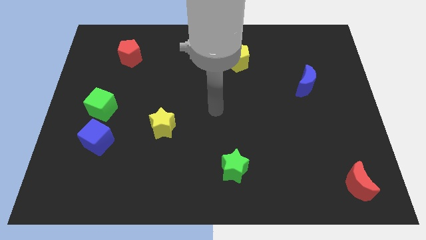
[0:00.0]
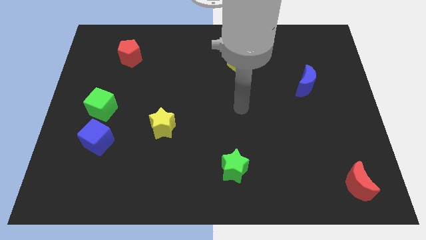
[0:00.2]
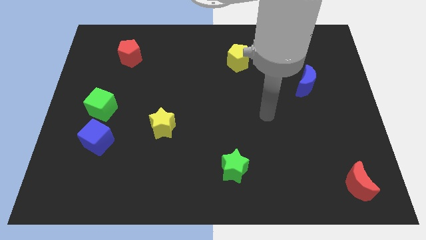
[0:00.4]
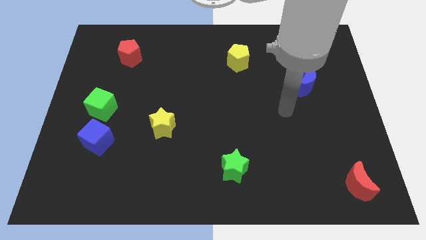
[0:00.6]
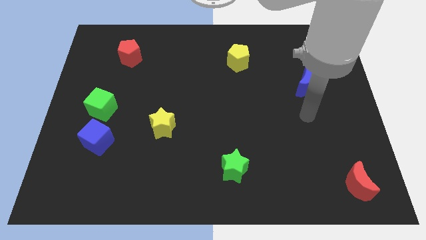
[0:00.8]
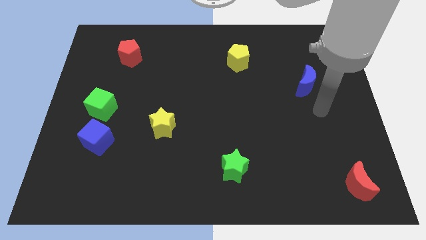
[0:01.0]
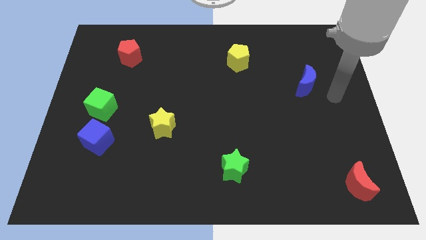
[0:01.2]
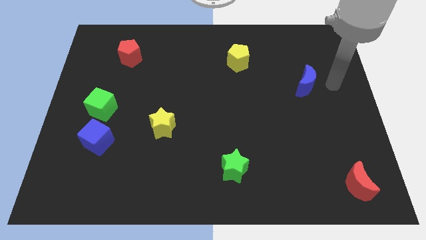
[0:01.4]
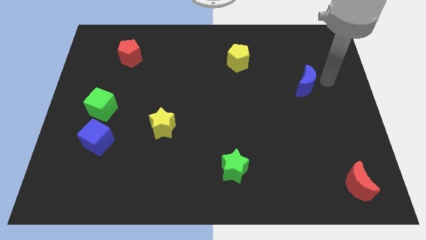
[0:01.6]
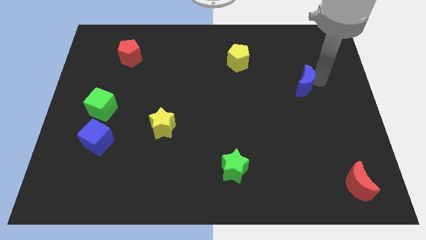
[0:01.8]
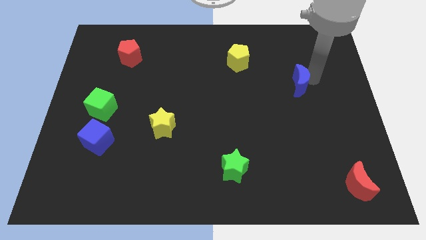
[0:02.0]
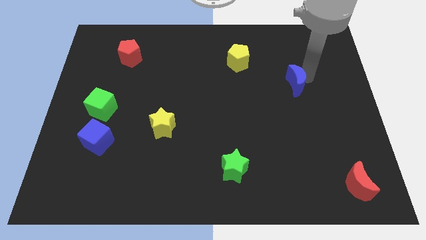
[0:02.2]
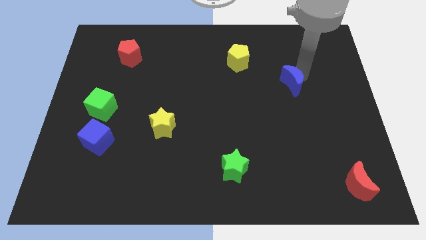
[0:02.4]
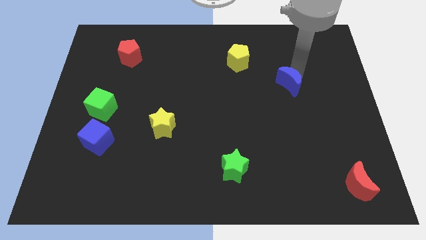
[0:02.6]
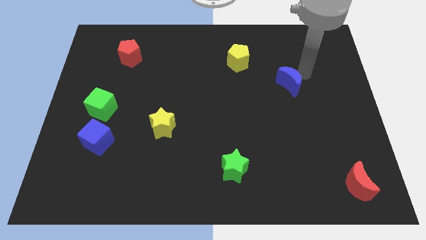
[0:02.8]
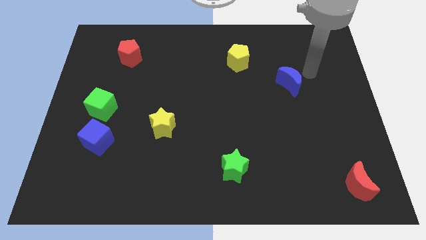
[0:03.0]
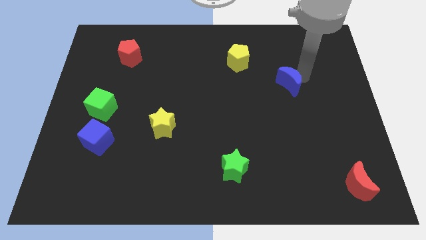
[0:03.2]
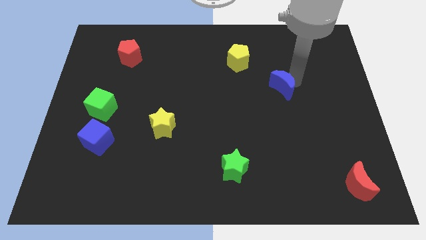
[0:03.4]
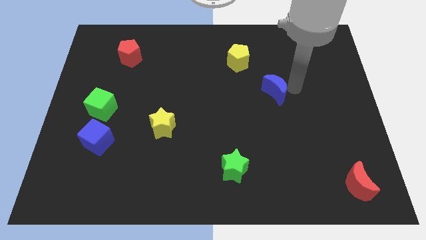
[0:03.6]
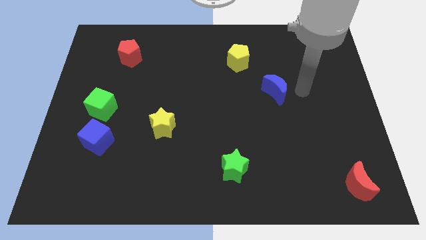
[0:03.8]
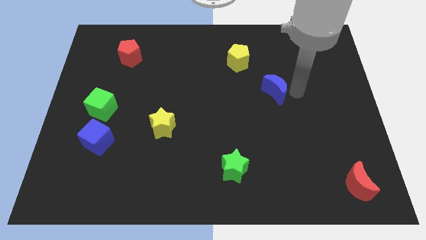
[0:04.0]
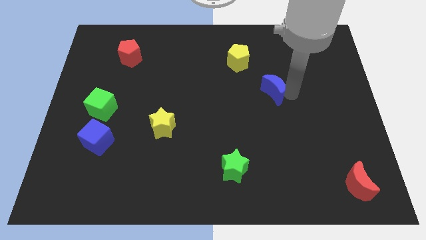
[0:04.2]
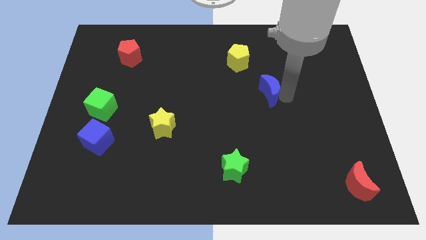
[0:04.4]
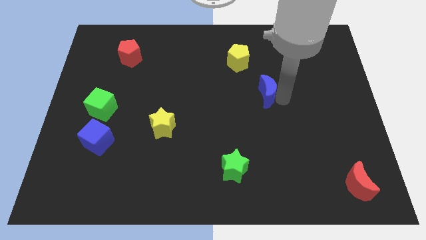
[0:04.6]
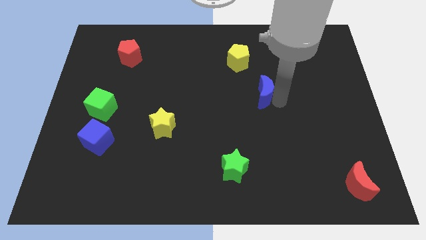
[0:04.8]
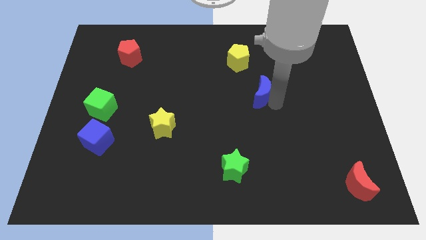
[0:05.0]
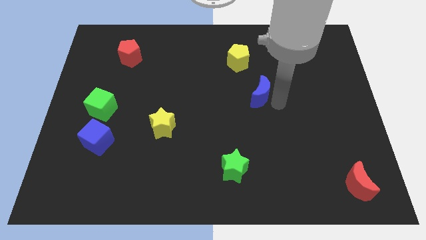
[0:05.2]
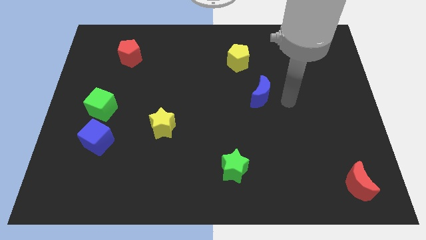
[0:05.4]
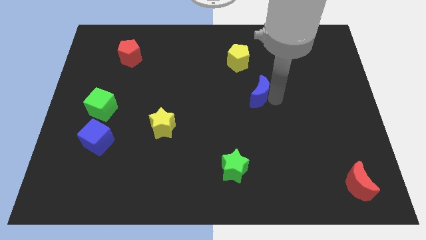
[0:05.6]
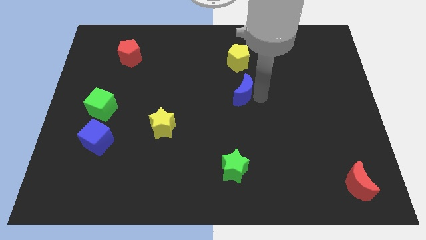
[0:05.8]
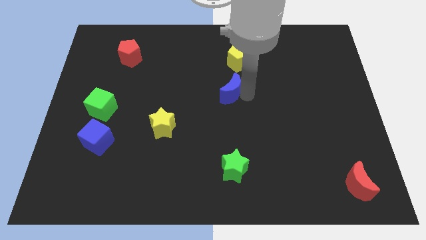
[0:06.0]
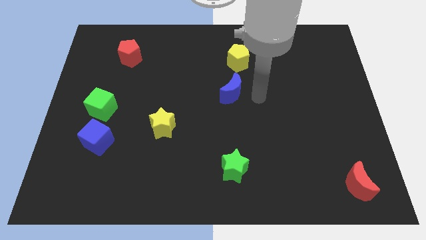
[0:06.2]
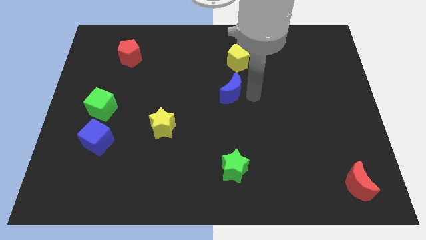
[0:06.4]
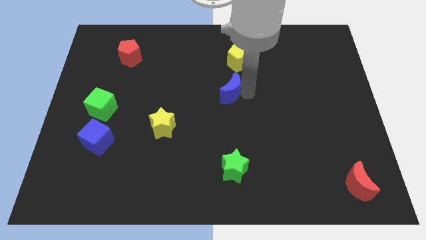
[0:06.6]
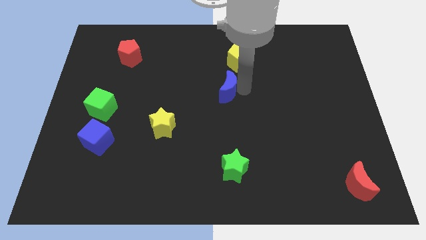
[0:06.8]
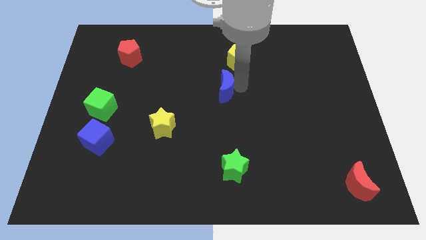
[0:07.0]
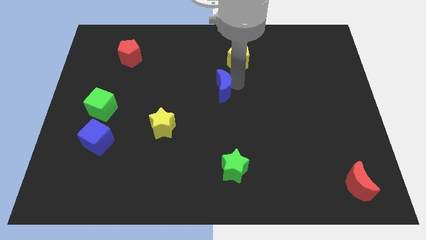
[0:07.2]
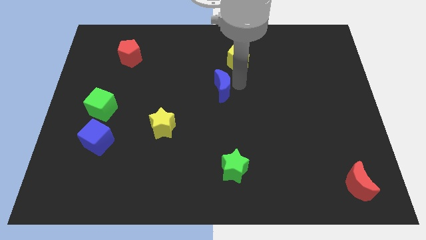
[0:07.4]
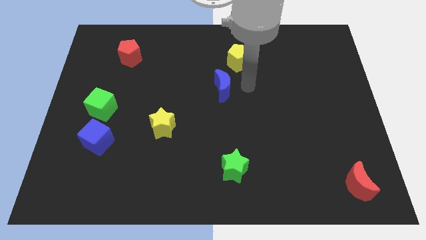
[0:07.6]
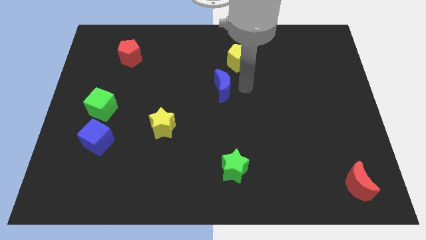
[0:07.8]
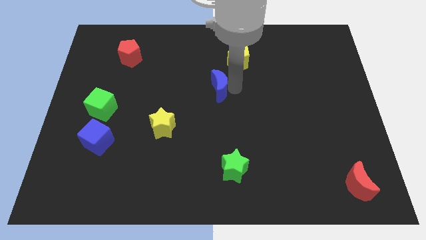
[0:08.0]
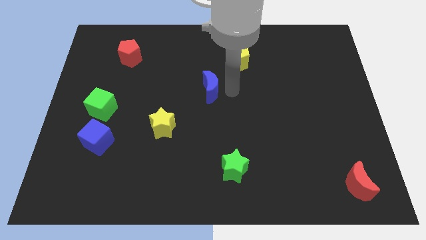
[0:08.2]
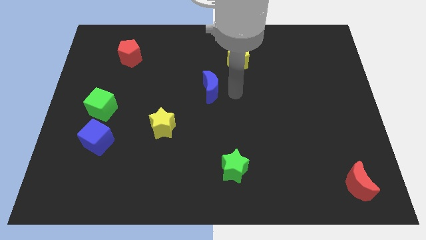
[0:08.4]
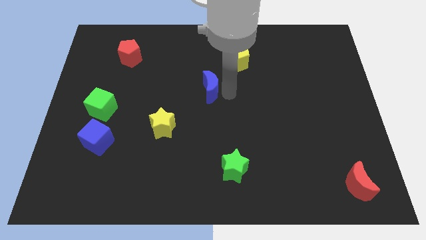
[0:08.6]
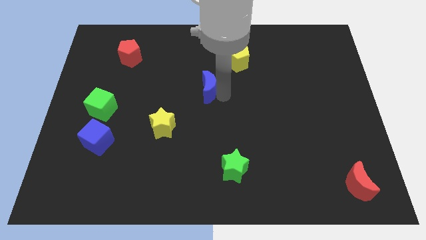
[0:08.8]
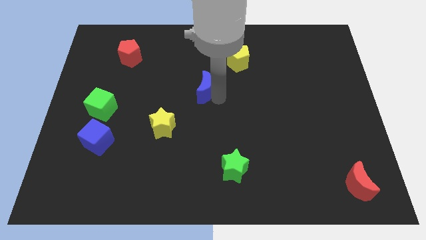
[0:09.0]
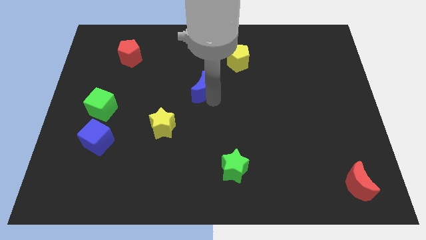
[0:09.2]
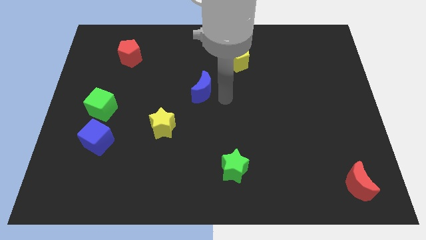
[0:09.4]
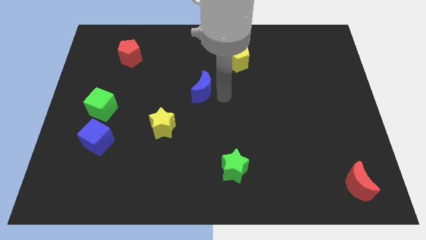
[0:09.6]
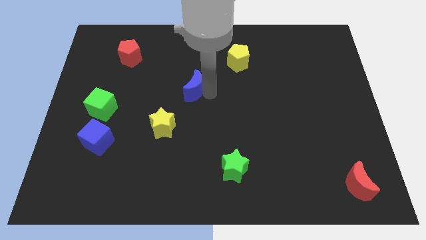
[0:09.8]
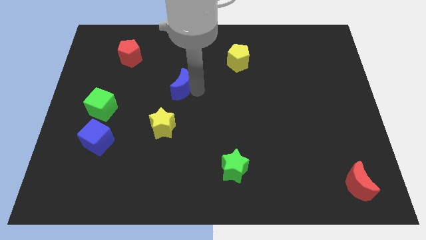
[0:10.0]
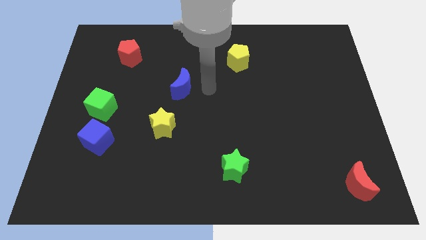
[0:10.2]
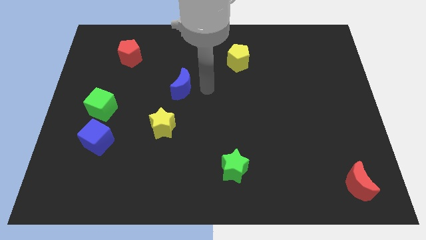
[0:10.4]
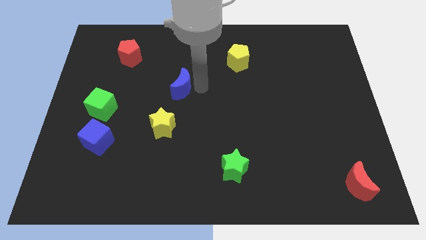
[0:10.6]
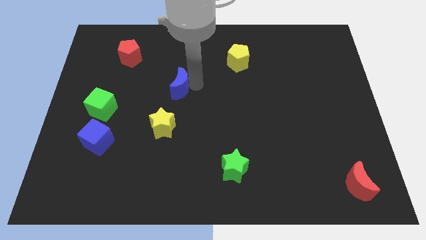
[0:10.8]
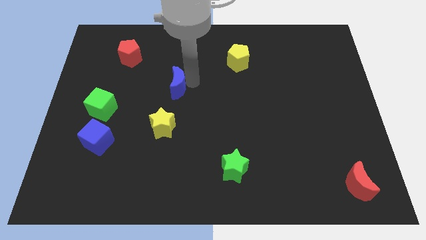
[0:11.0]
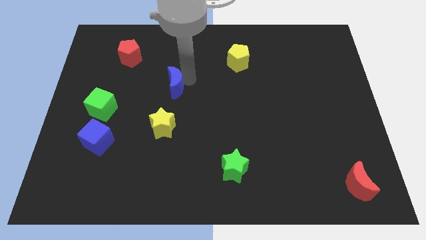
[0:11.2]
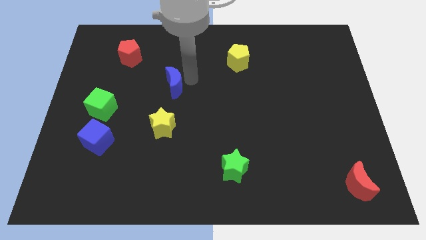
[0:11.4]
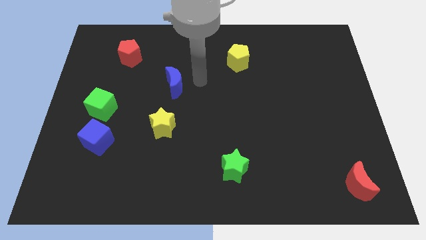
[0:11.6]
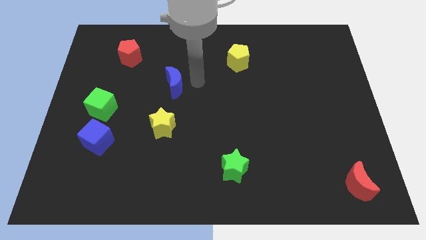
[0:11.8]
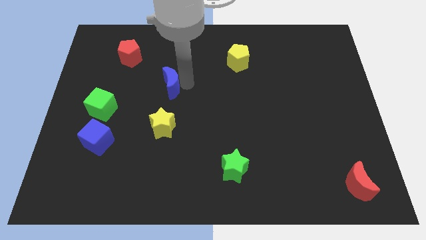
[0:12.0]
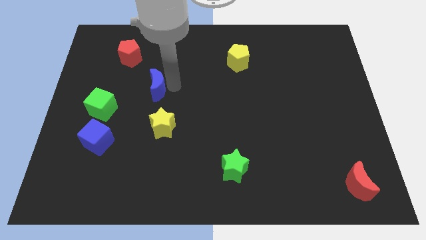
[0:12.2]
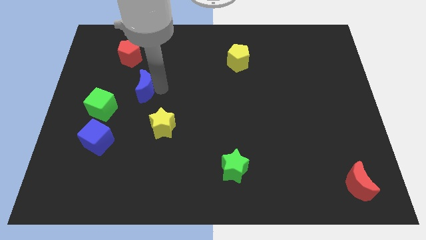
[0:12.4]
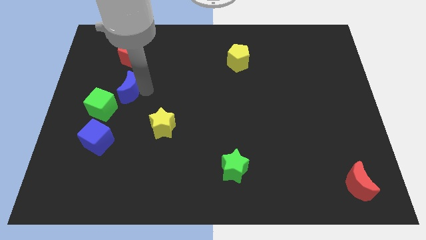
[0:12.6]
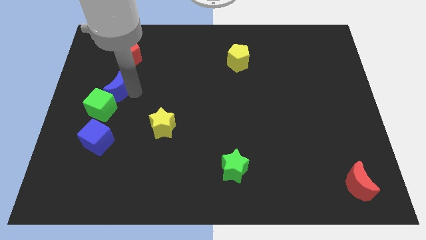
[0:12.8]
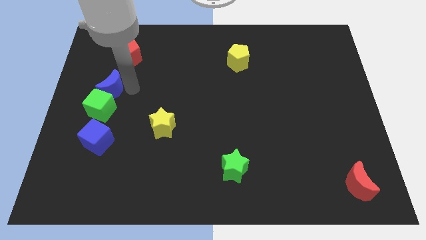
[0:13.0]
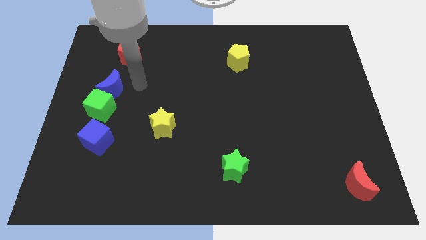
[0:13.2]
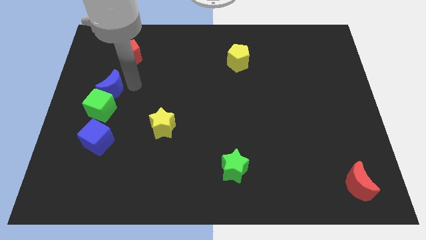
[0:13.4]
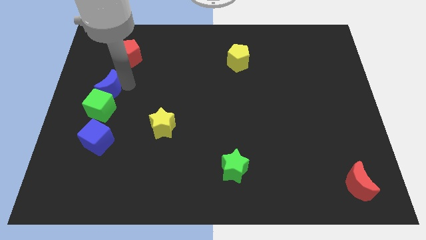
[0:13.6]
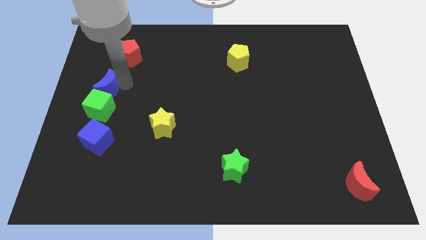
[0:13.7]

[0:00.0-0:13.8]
push the blue moon to the left side of the board

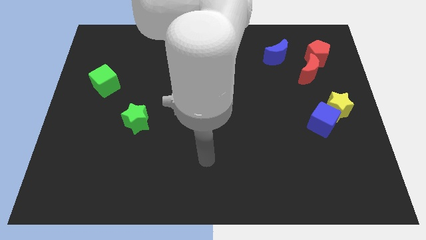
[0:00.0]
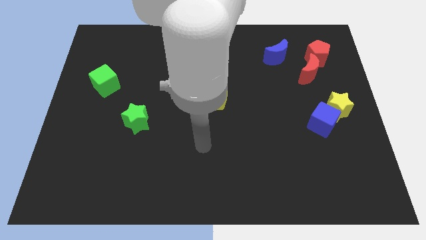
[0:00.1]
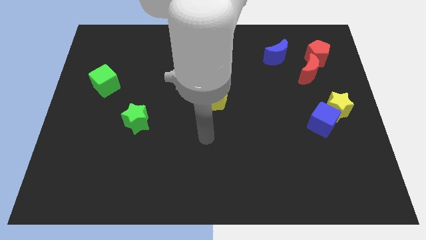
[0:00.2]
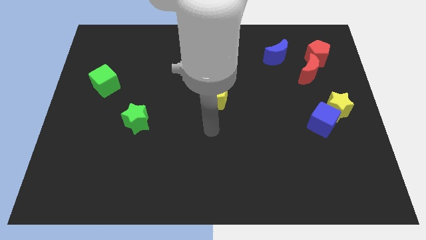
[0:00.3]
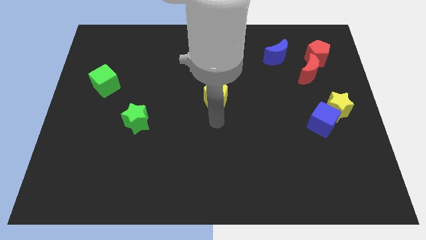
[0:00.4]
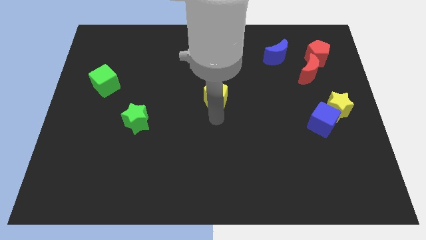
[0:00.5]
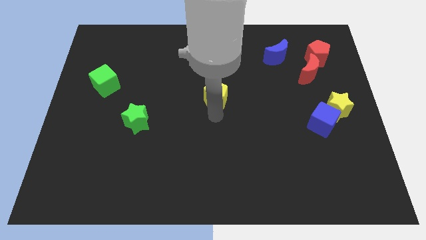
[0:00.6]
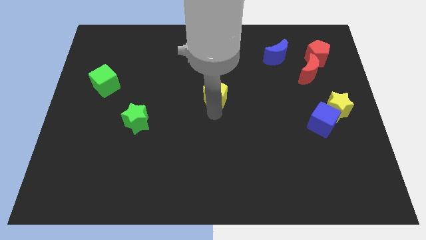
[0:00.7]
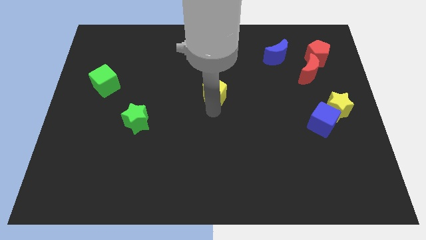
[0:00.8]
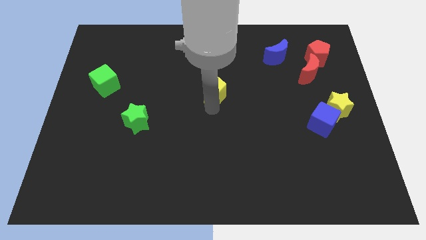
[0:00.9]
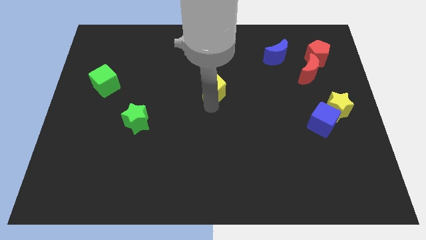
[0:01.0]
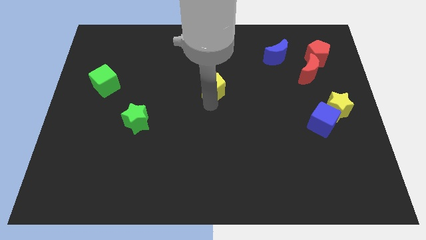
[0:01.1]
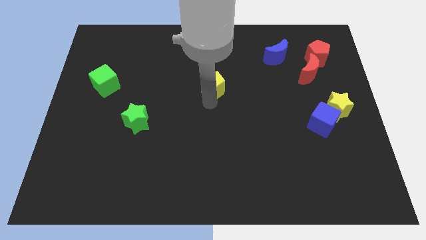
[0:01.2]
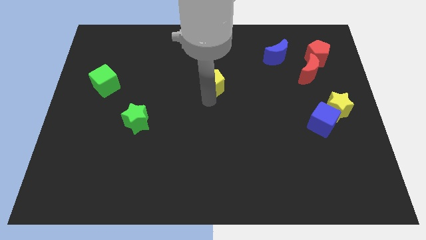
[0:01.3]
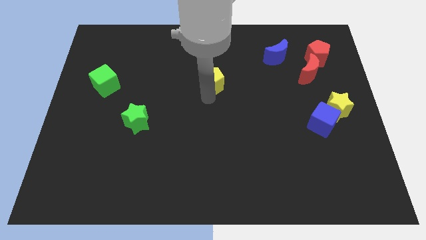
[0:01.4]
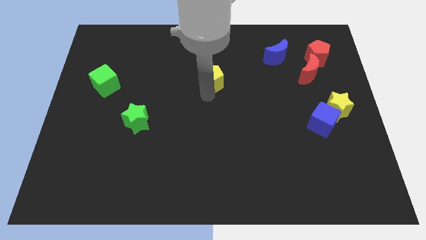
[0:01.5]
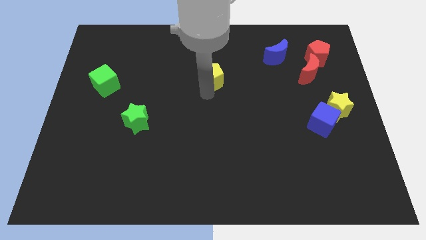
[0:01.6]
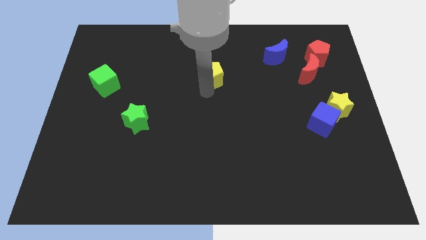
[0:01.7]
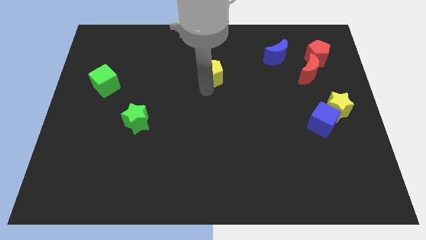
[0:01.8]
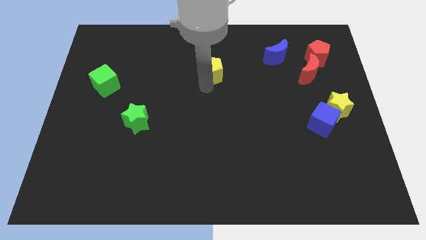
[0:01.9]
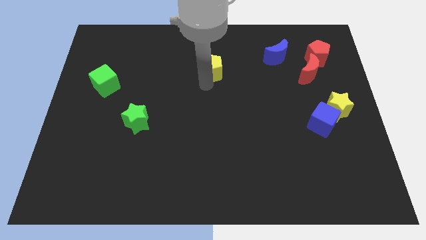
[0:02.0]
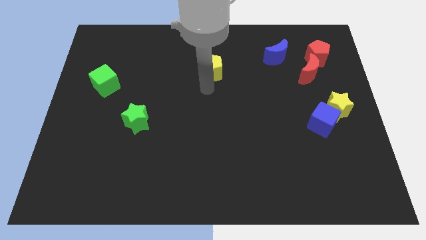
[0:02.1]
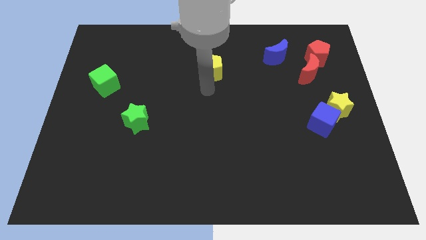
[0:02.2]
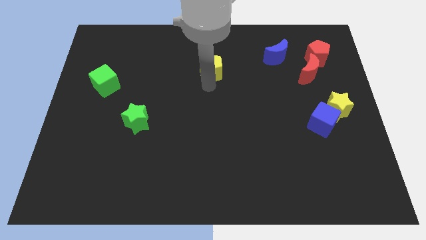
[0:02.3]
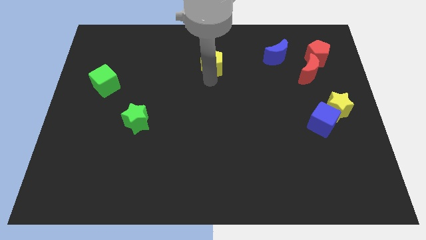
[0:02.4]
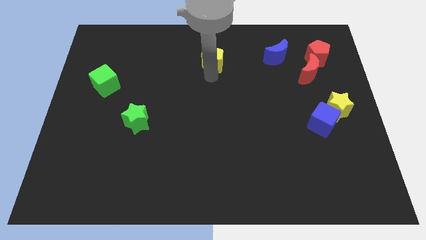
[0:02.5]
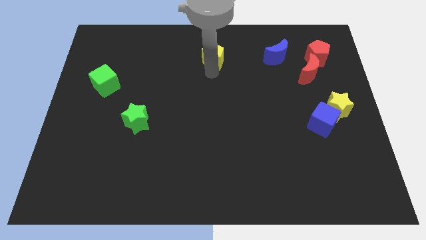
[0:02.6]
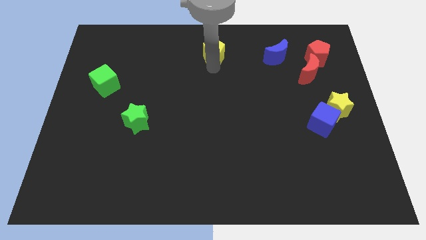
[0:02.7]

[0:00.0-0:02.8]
put the yellow pentagon to the top
